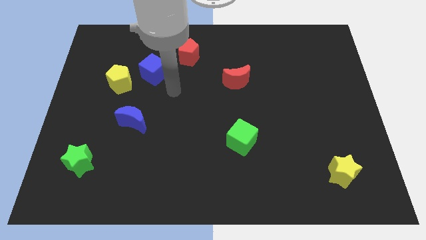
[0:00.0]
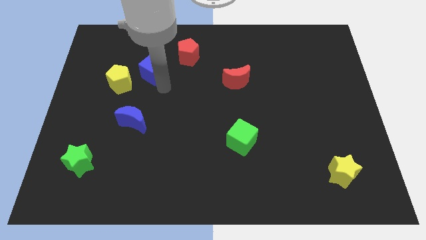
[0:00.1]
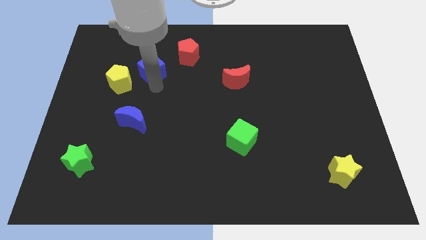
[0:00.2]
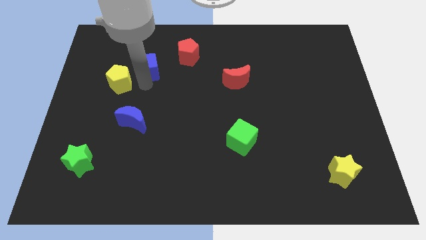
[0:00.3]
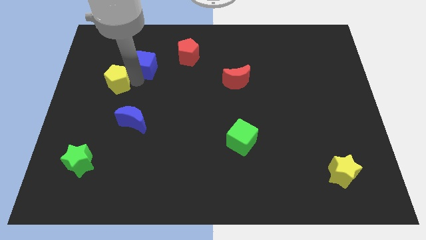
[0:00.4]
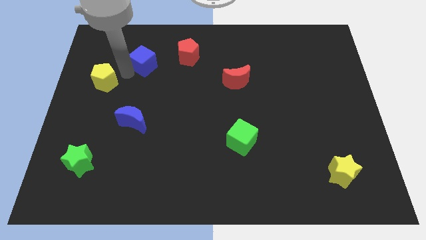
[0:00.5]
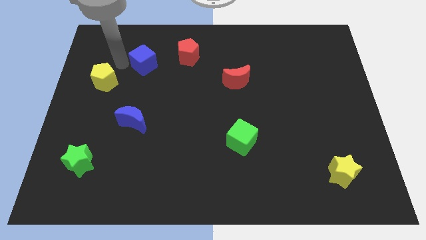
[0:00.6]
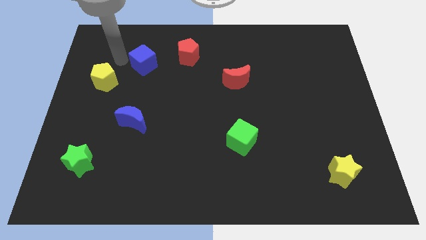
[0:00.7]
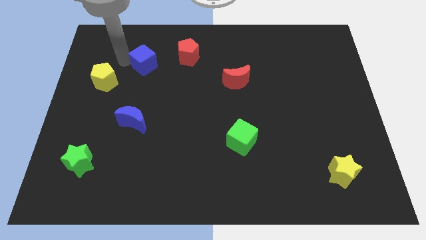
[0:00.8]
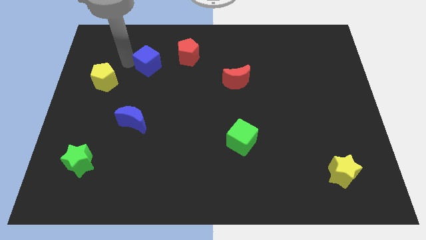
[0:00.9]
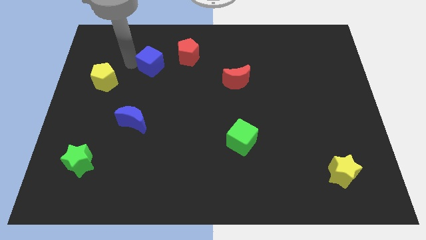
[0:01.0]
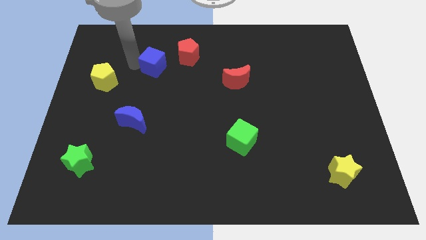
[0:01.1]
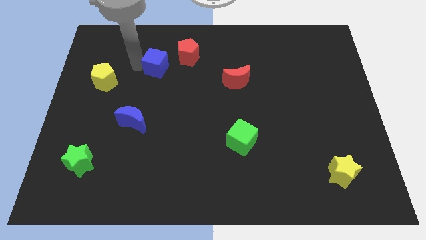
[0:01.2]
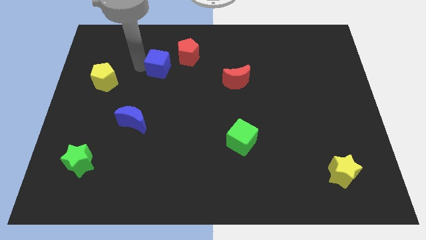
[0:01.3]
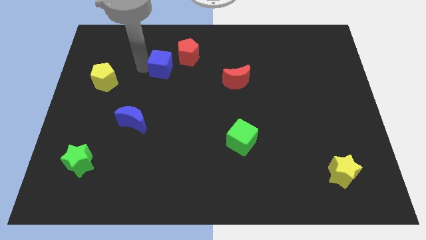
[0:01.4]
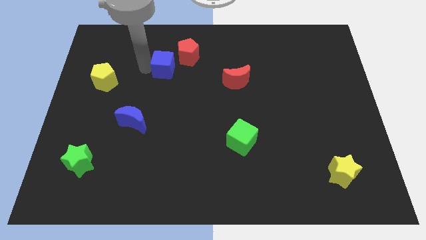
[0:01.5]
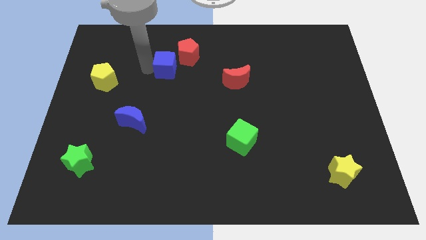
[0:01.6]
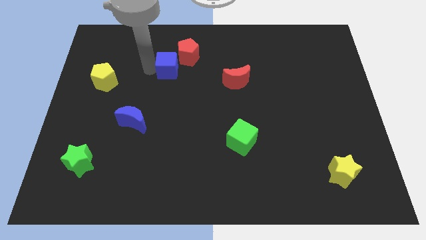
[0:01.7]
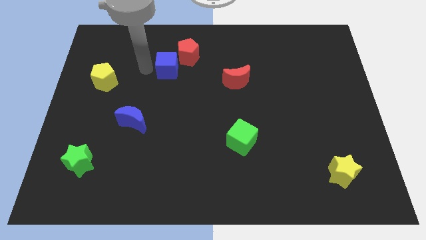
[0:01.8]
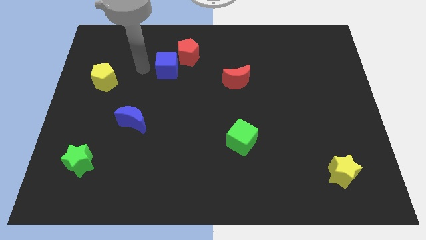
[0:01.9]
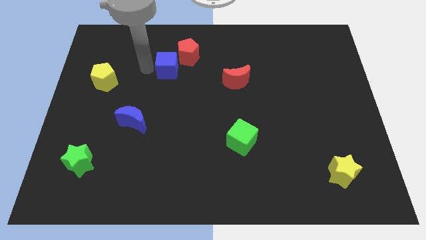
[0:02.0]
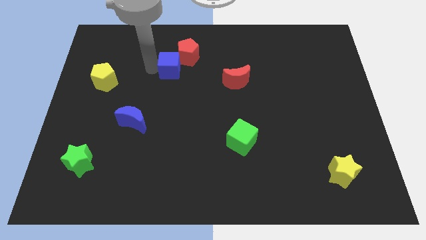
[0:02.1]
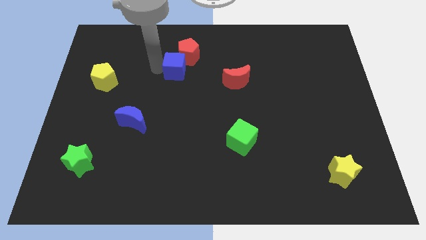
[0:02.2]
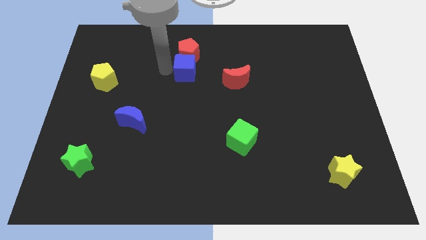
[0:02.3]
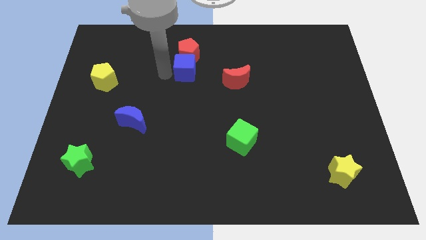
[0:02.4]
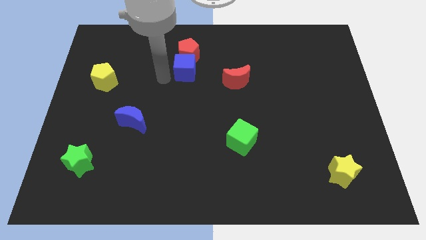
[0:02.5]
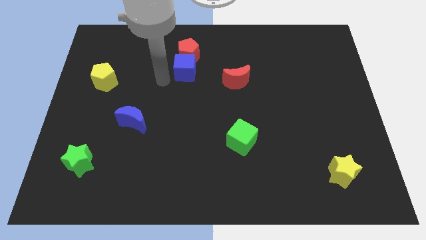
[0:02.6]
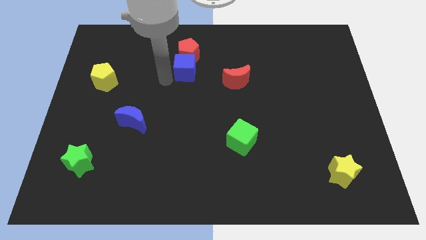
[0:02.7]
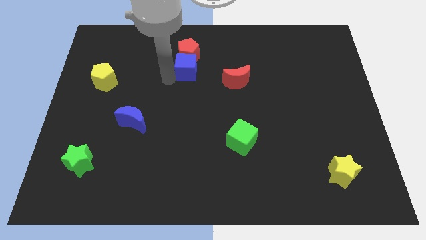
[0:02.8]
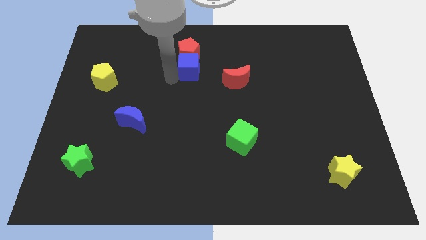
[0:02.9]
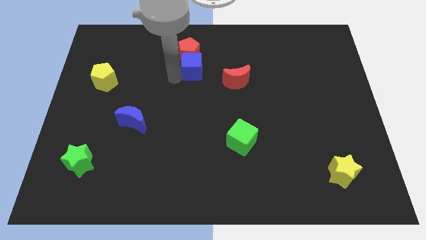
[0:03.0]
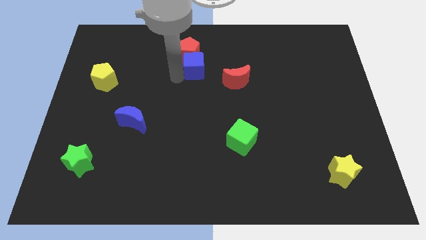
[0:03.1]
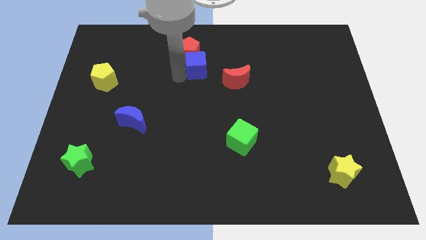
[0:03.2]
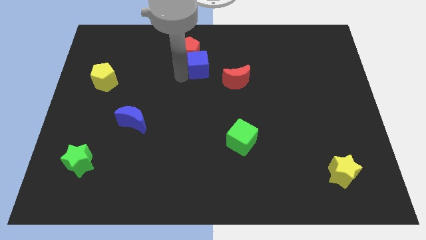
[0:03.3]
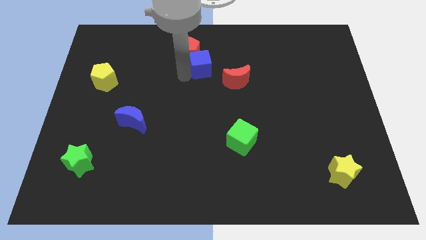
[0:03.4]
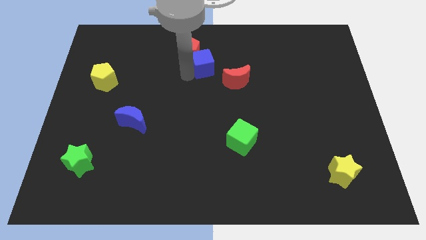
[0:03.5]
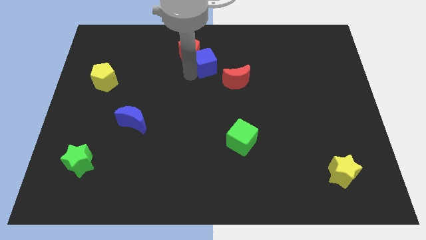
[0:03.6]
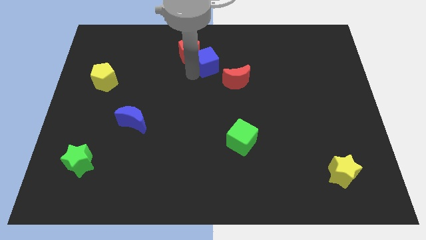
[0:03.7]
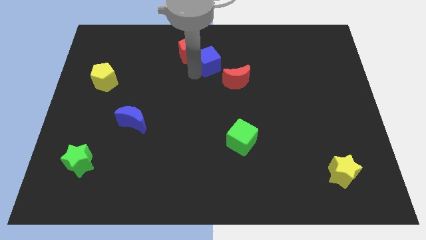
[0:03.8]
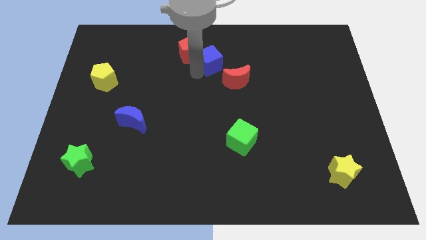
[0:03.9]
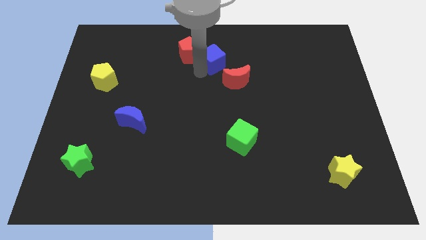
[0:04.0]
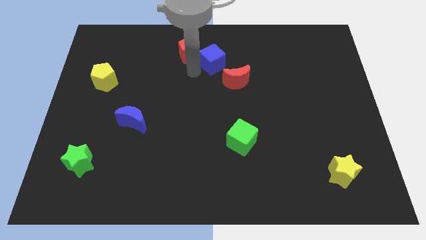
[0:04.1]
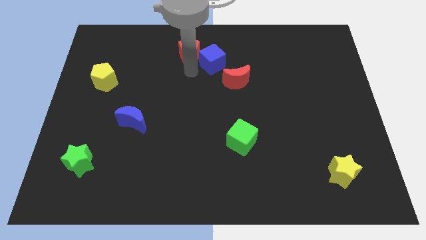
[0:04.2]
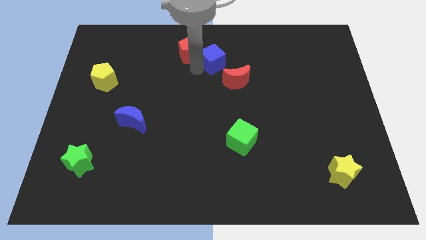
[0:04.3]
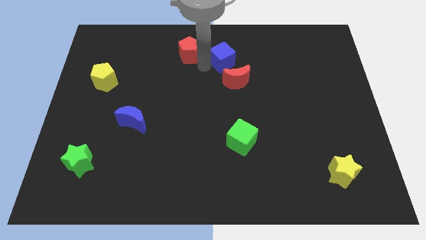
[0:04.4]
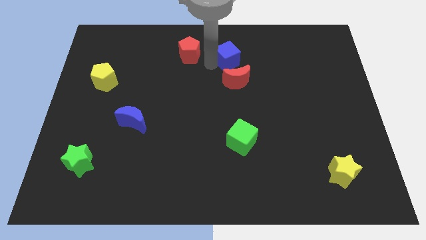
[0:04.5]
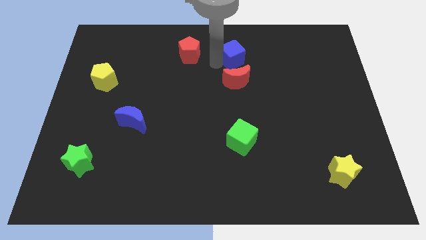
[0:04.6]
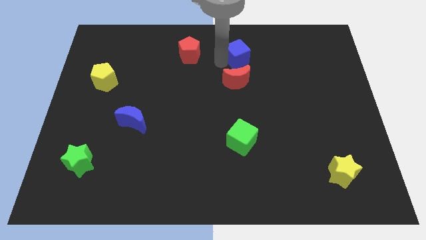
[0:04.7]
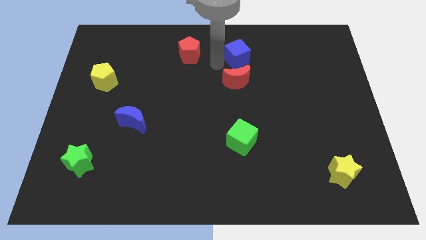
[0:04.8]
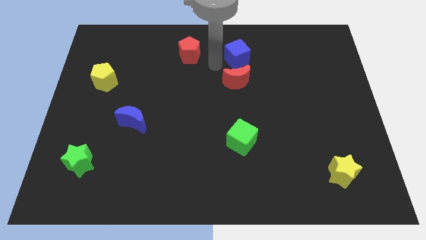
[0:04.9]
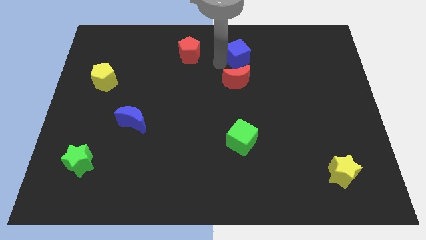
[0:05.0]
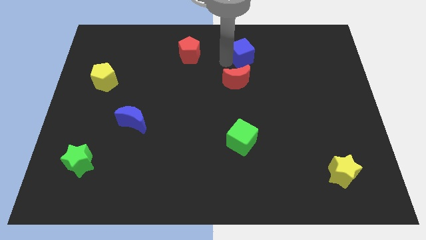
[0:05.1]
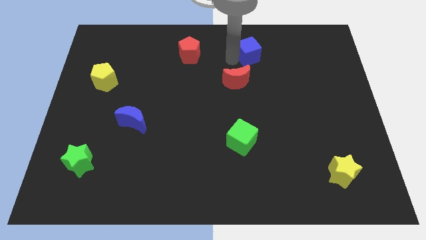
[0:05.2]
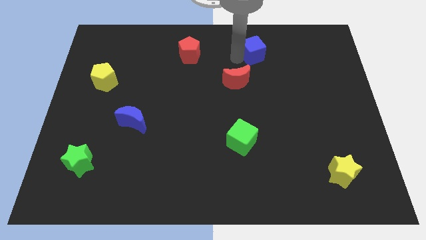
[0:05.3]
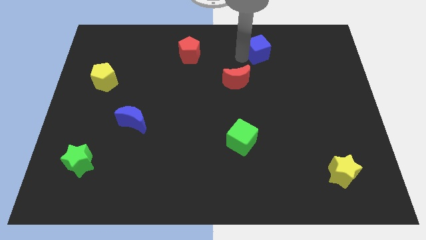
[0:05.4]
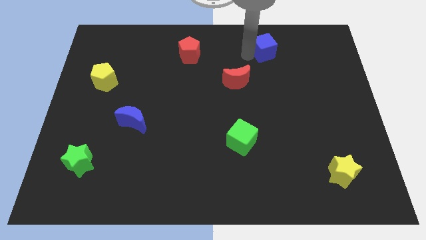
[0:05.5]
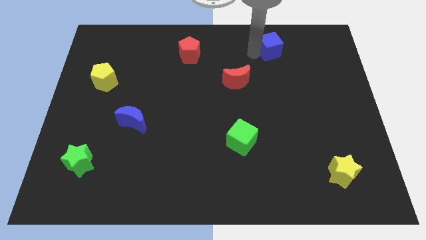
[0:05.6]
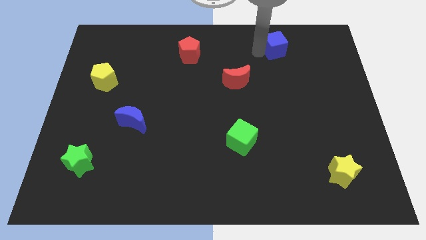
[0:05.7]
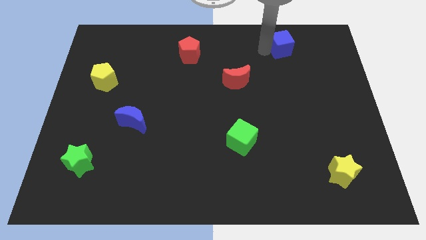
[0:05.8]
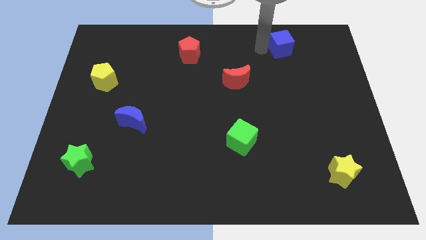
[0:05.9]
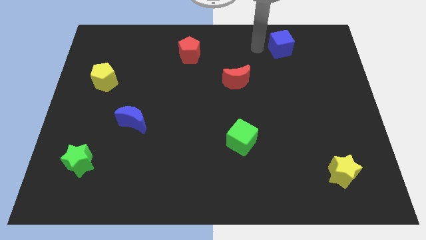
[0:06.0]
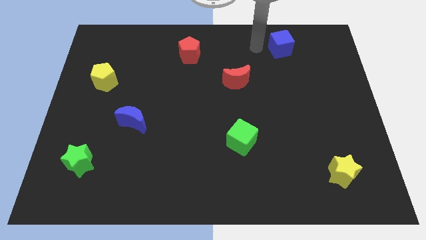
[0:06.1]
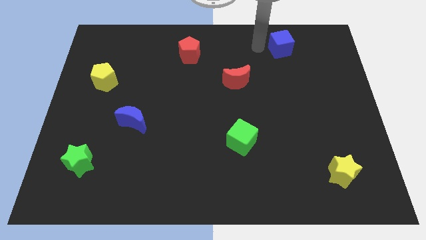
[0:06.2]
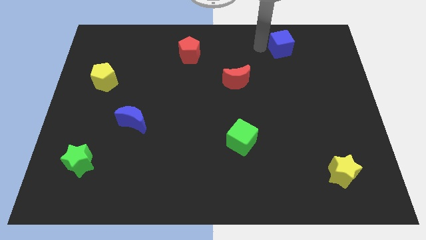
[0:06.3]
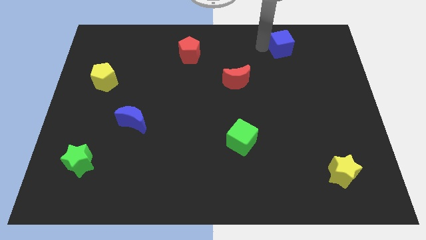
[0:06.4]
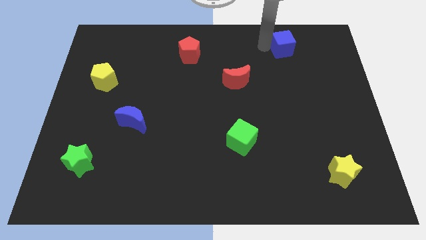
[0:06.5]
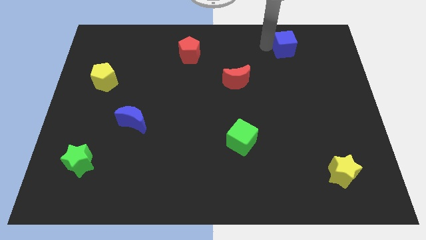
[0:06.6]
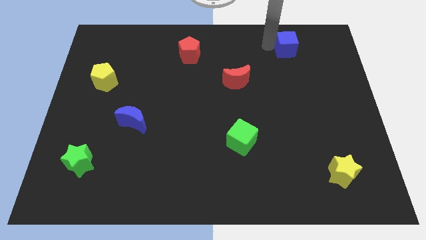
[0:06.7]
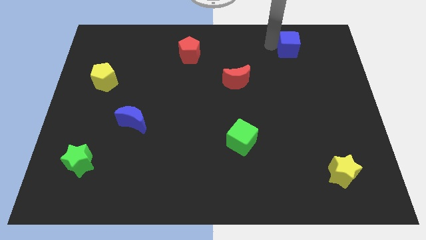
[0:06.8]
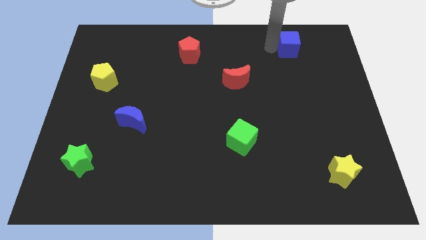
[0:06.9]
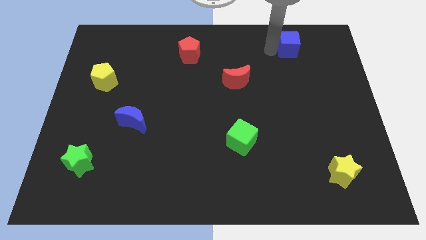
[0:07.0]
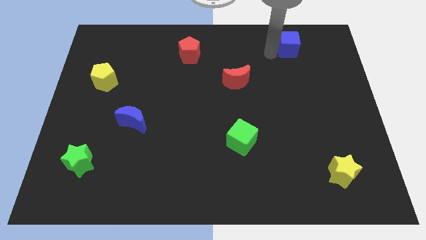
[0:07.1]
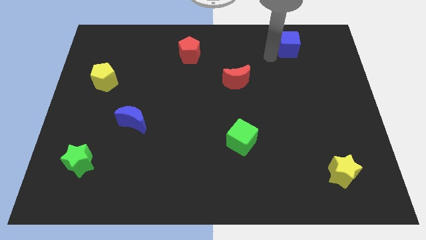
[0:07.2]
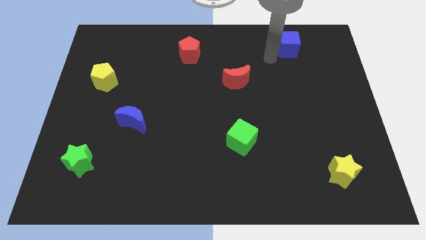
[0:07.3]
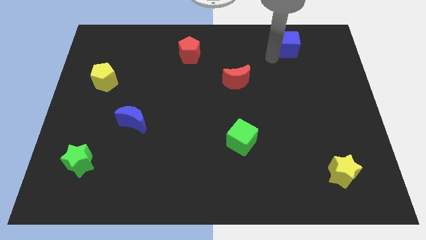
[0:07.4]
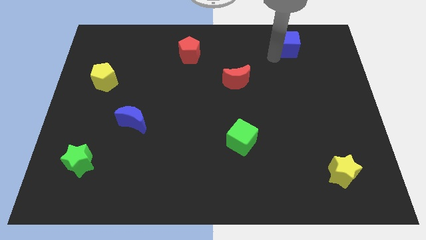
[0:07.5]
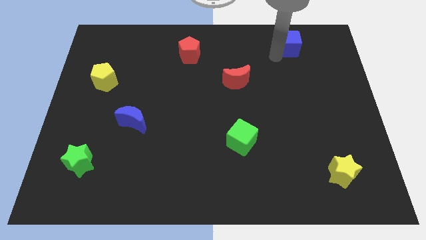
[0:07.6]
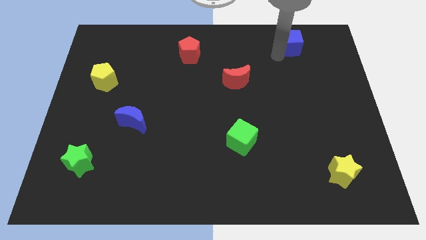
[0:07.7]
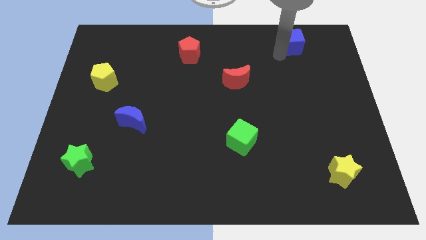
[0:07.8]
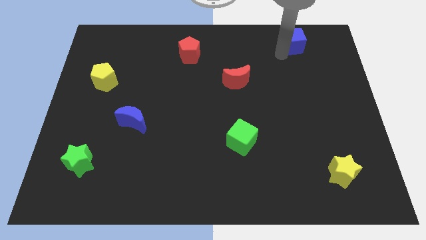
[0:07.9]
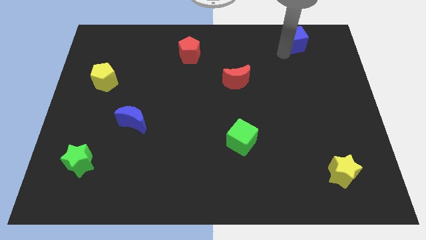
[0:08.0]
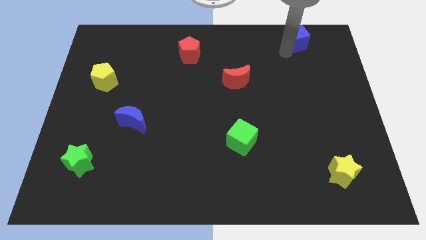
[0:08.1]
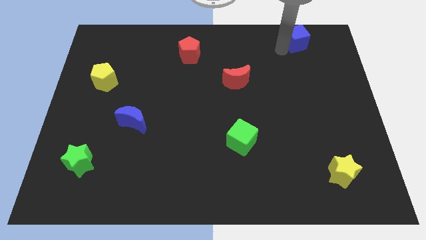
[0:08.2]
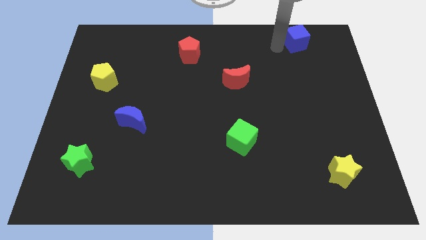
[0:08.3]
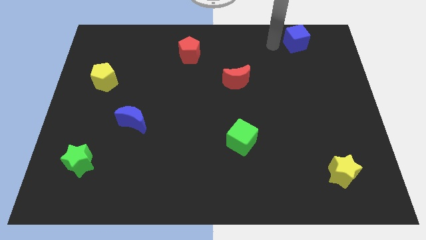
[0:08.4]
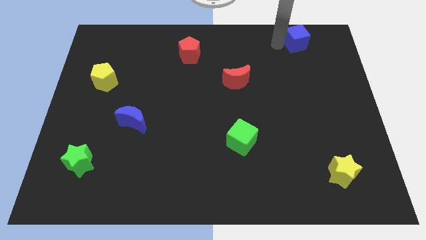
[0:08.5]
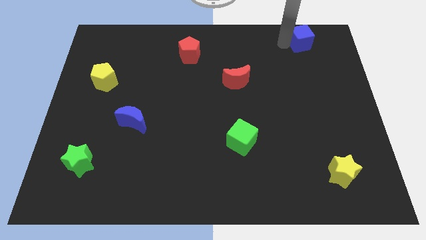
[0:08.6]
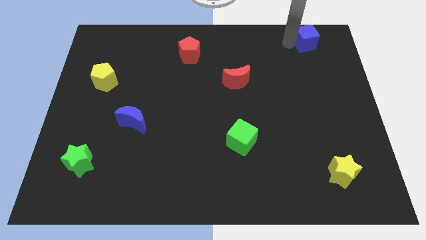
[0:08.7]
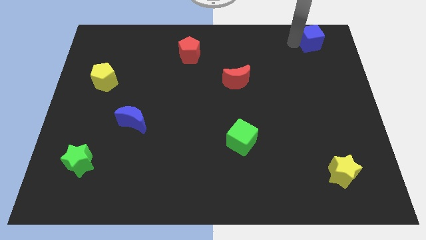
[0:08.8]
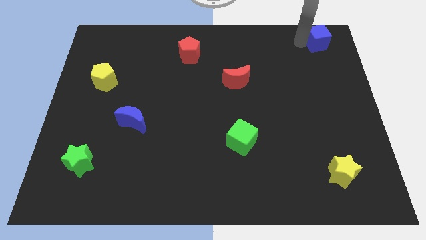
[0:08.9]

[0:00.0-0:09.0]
move the blue cube to the top right of the board
